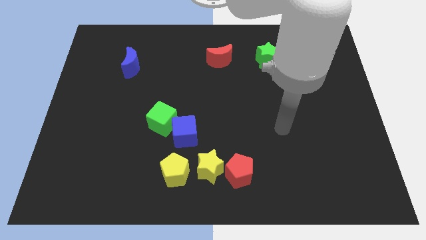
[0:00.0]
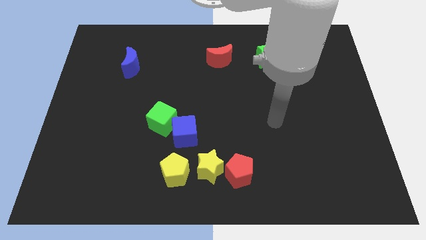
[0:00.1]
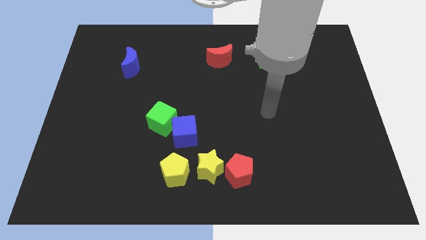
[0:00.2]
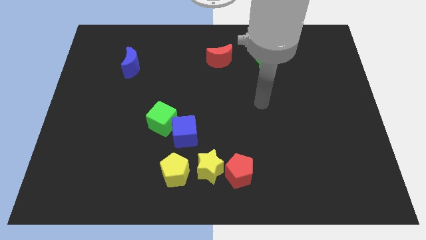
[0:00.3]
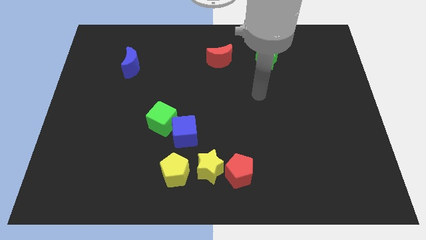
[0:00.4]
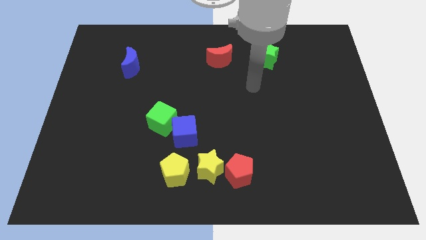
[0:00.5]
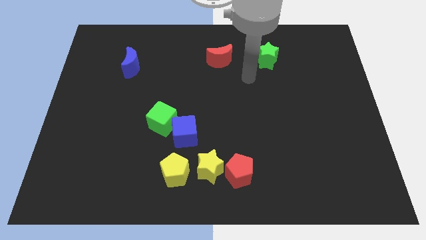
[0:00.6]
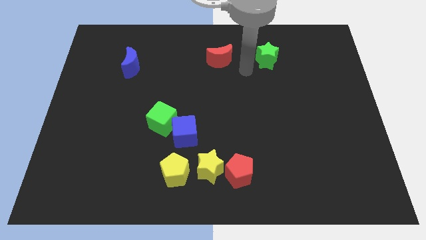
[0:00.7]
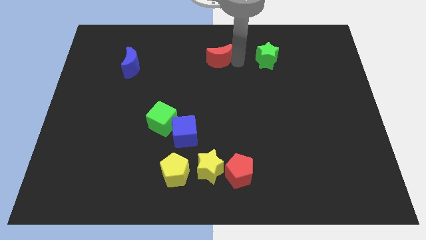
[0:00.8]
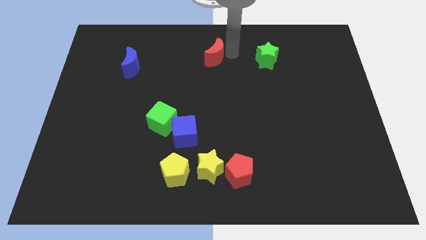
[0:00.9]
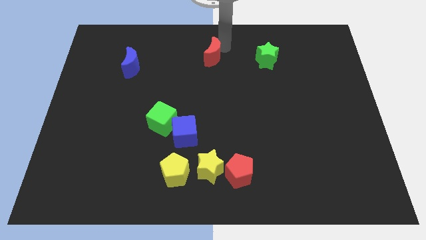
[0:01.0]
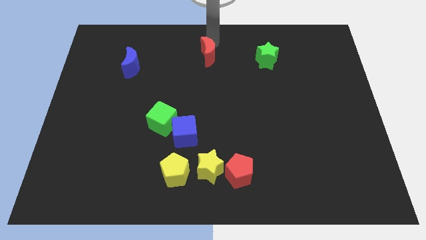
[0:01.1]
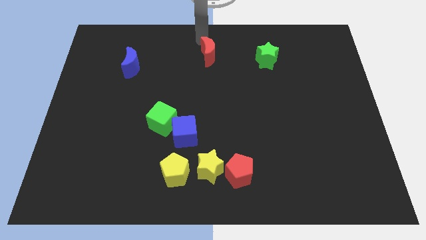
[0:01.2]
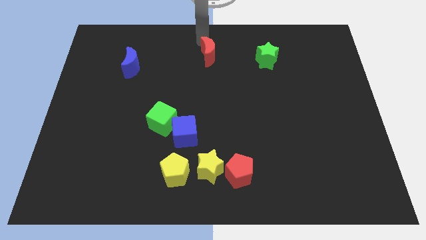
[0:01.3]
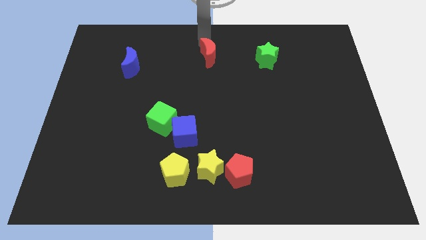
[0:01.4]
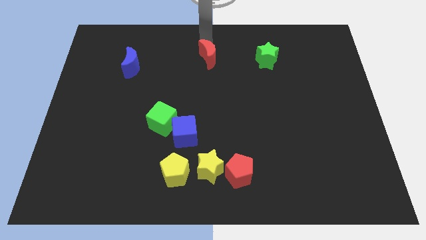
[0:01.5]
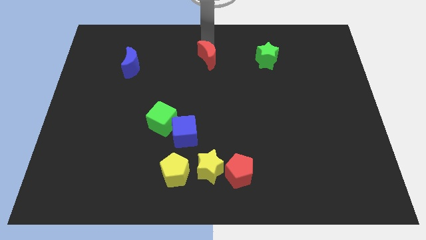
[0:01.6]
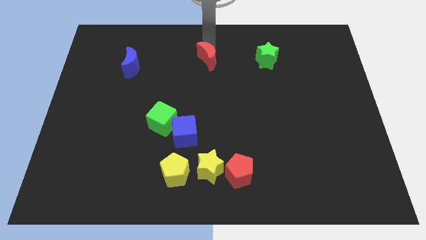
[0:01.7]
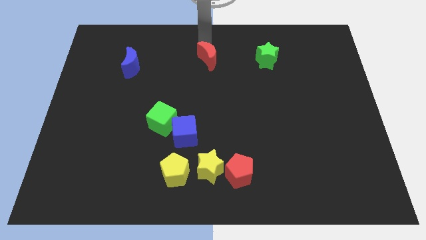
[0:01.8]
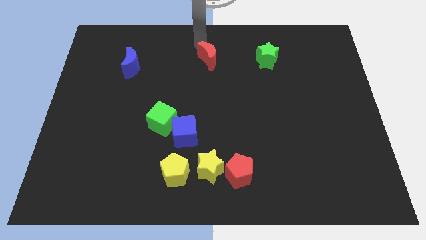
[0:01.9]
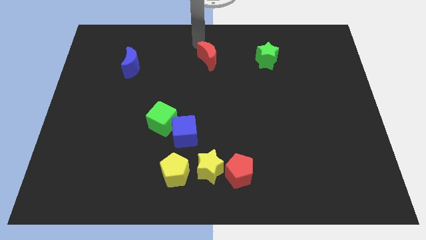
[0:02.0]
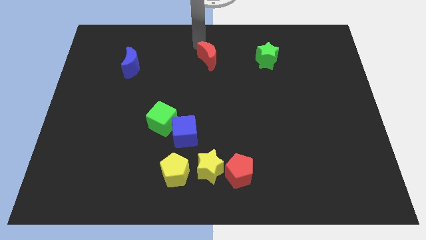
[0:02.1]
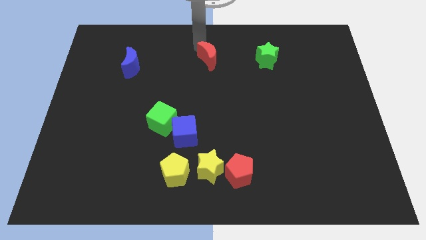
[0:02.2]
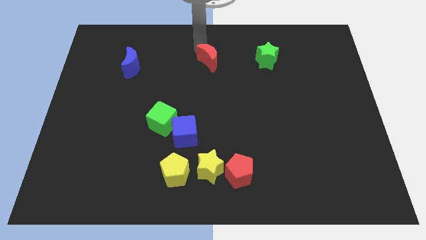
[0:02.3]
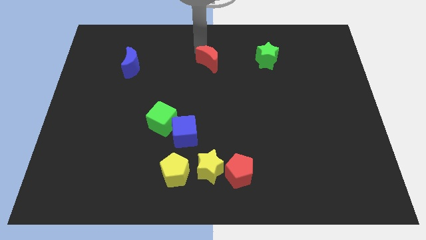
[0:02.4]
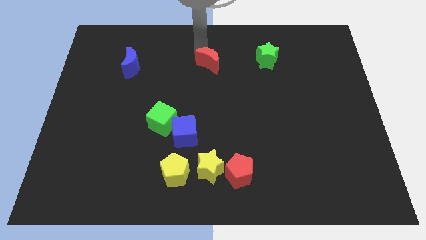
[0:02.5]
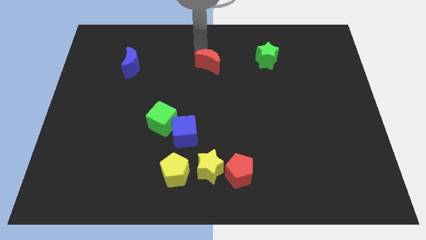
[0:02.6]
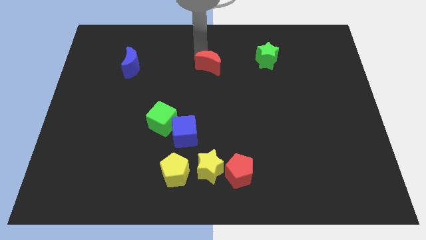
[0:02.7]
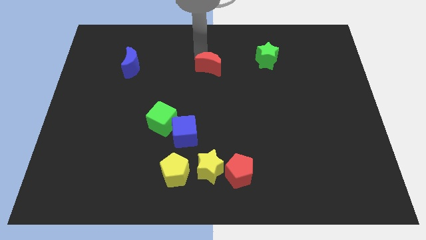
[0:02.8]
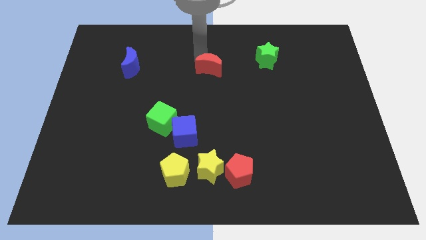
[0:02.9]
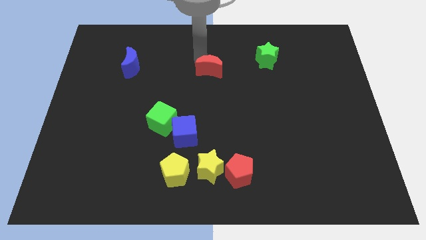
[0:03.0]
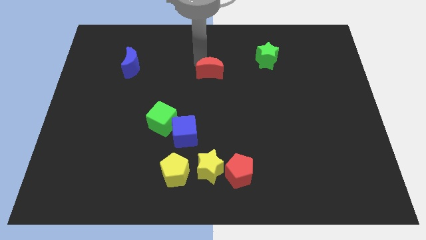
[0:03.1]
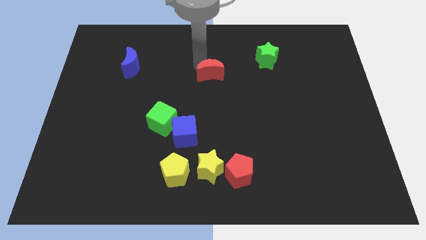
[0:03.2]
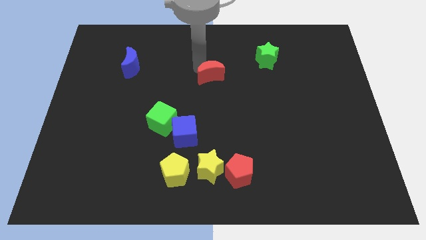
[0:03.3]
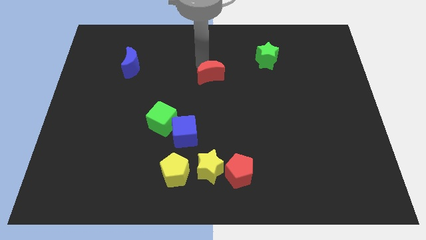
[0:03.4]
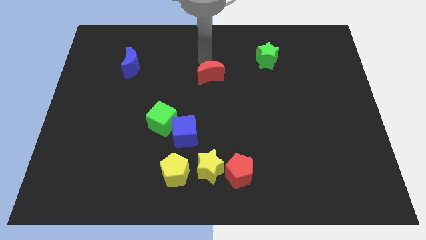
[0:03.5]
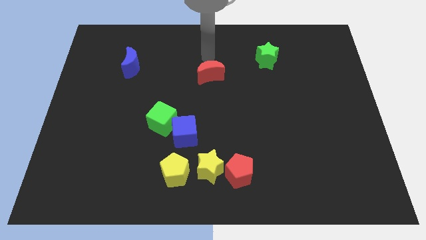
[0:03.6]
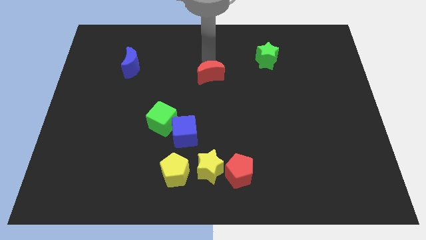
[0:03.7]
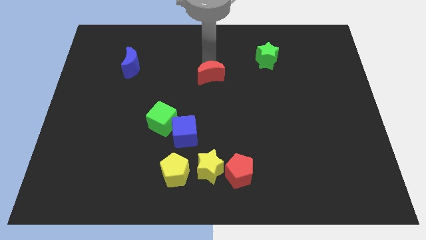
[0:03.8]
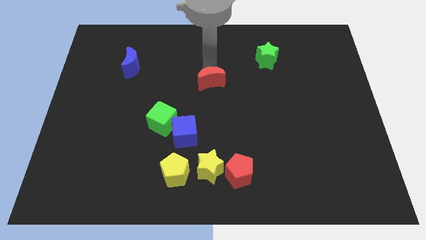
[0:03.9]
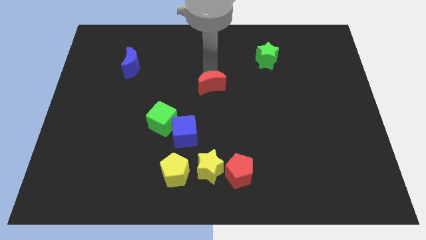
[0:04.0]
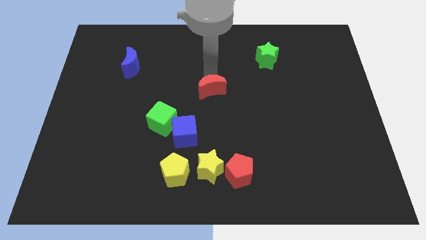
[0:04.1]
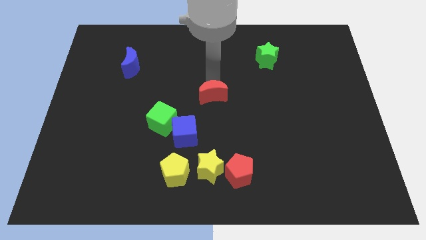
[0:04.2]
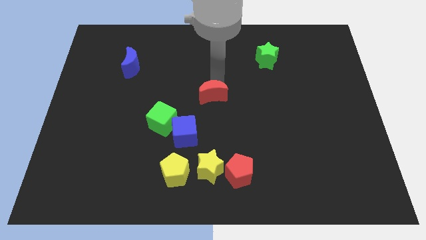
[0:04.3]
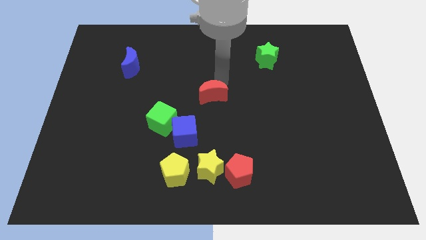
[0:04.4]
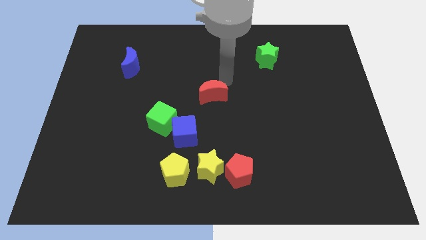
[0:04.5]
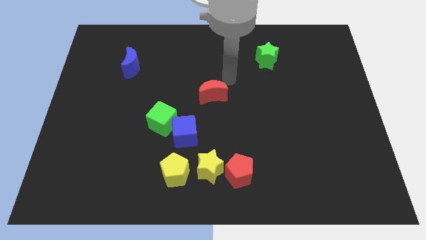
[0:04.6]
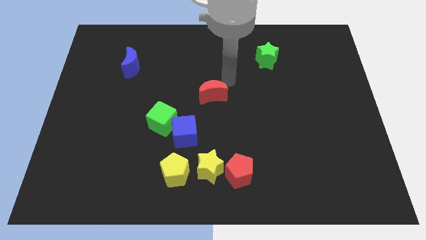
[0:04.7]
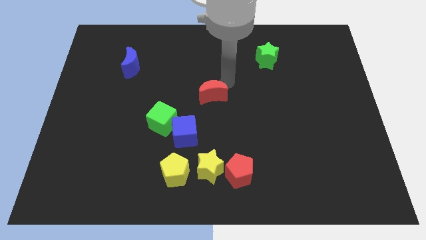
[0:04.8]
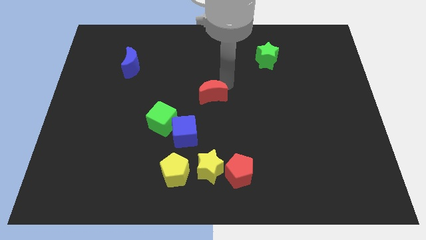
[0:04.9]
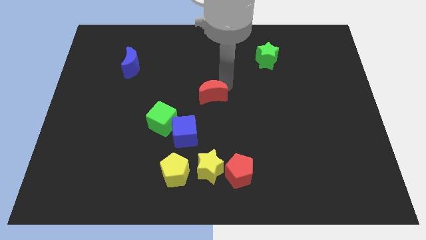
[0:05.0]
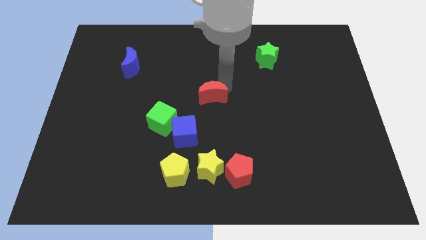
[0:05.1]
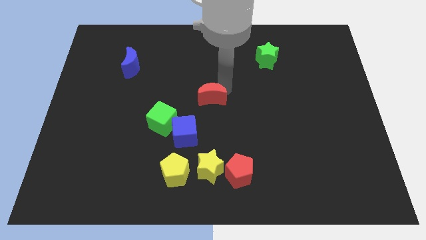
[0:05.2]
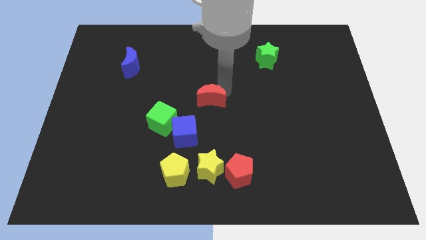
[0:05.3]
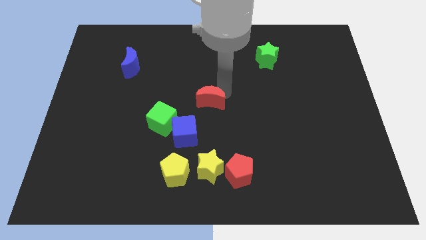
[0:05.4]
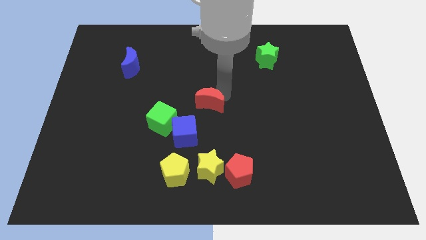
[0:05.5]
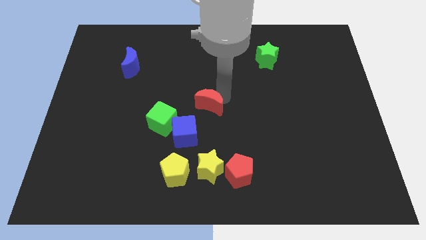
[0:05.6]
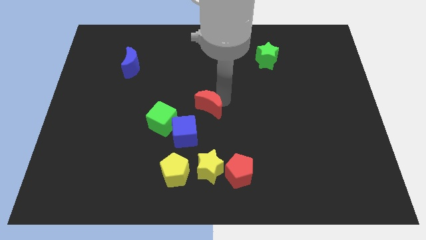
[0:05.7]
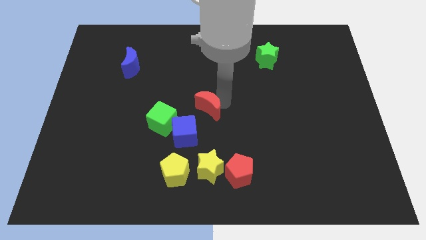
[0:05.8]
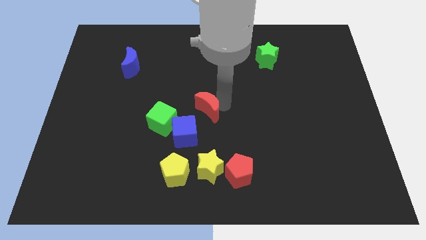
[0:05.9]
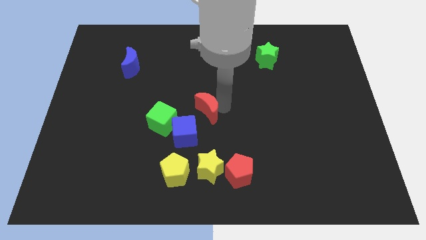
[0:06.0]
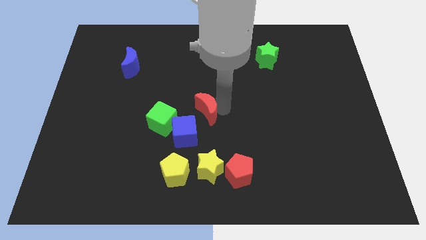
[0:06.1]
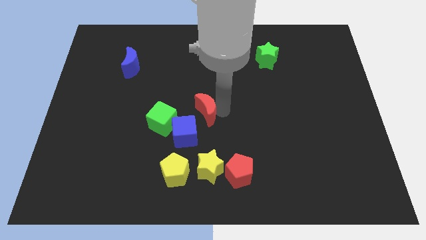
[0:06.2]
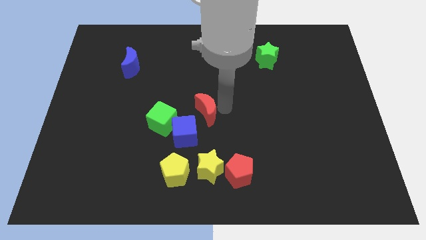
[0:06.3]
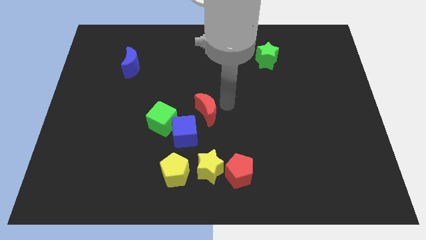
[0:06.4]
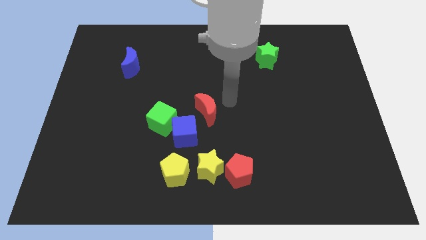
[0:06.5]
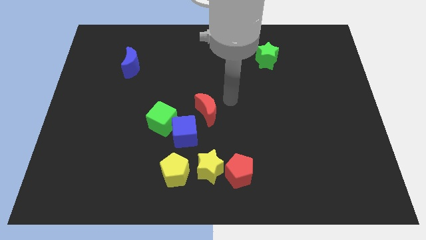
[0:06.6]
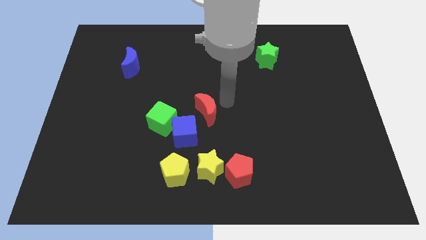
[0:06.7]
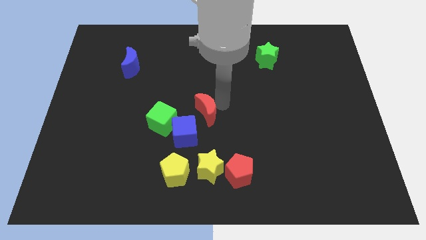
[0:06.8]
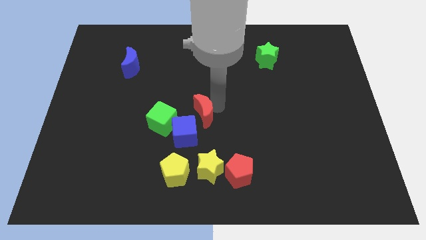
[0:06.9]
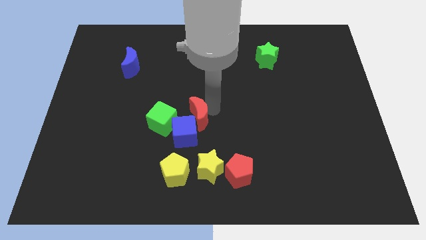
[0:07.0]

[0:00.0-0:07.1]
move the red moon towards the blue cube

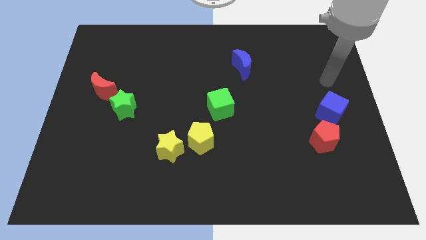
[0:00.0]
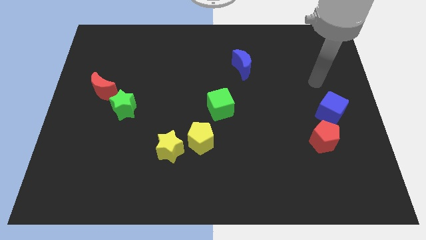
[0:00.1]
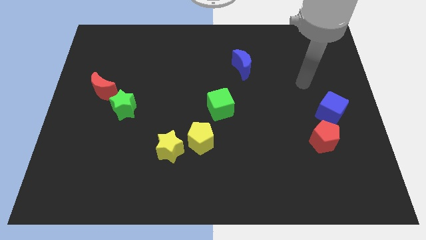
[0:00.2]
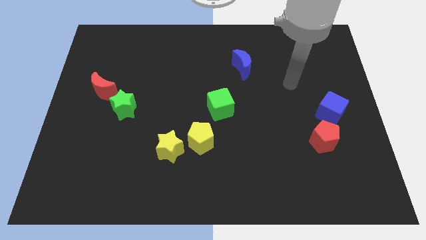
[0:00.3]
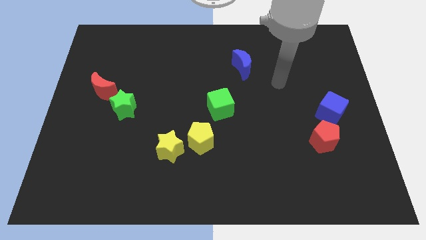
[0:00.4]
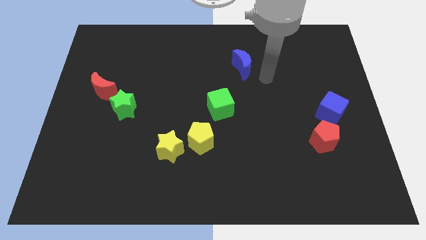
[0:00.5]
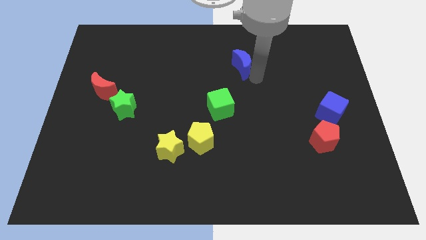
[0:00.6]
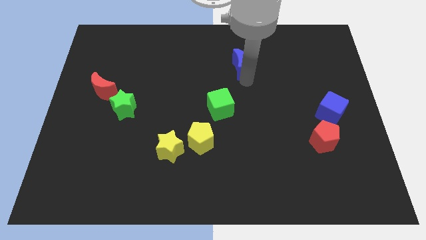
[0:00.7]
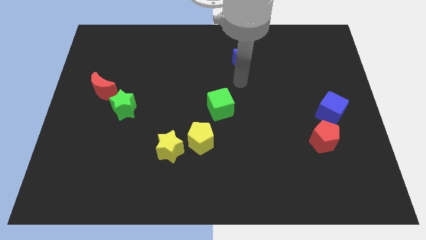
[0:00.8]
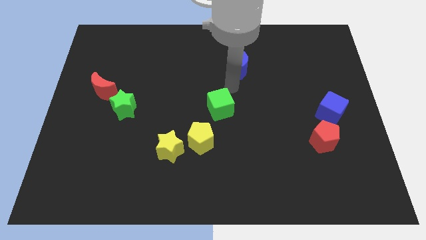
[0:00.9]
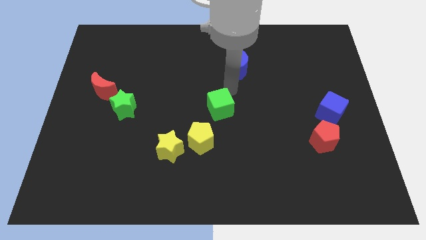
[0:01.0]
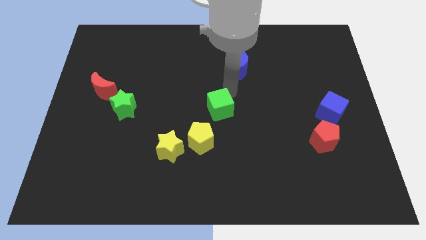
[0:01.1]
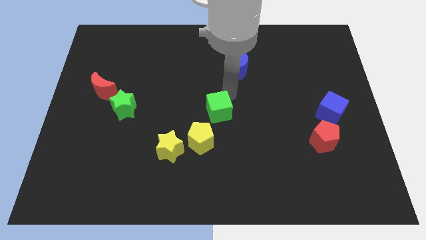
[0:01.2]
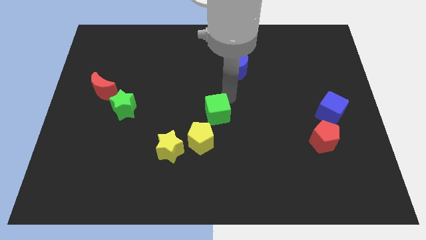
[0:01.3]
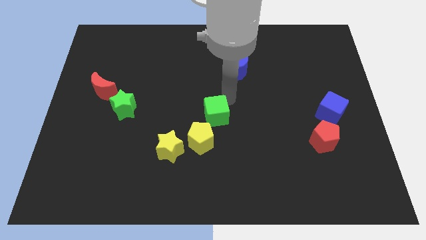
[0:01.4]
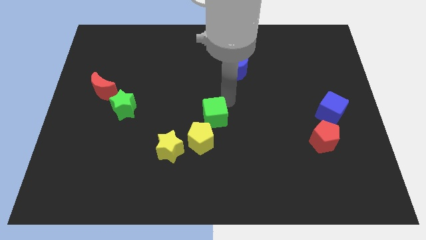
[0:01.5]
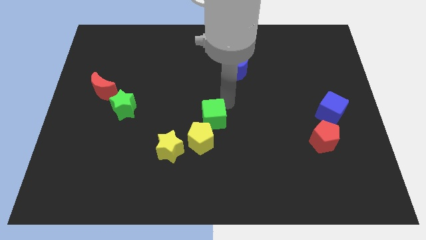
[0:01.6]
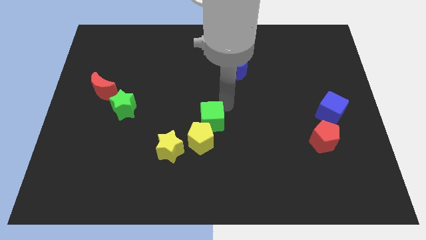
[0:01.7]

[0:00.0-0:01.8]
push the green cube next to the yellow pentagon
